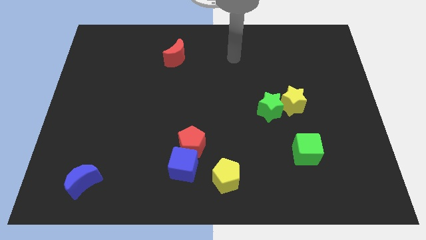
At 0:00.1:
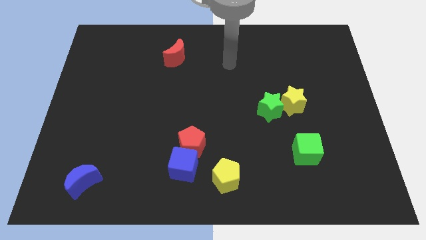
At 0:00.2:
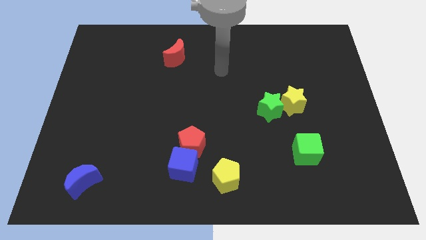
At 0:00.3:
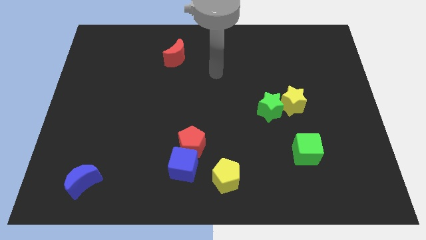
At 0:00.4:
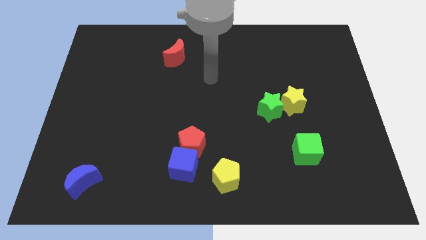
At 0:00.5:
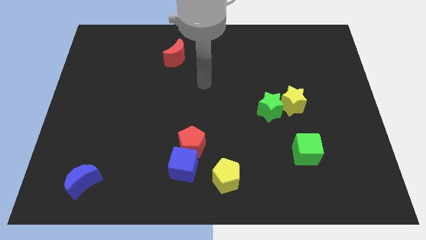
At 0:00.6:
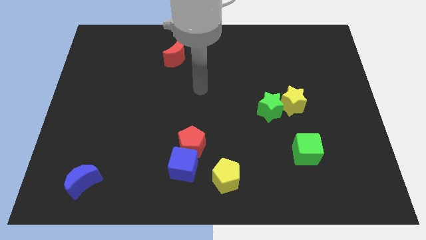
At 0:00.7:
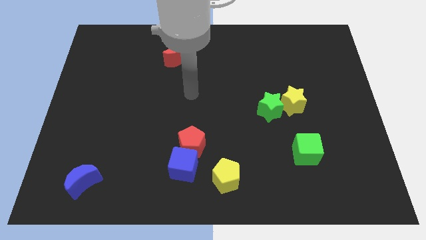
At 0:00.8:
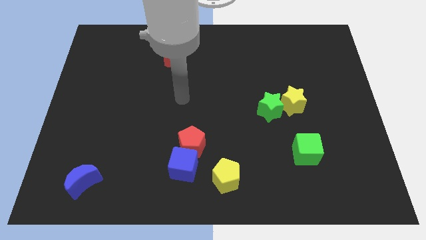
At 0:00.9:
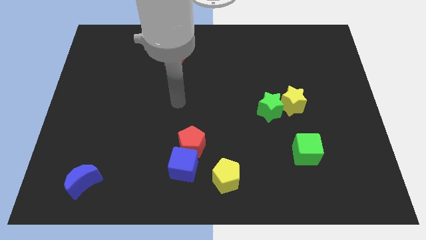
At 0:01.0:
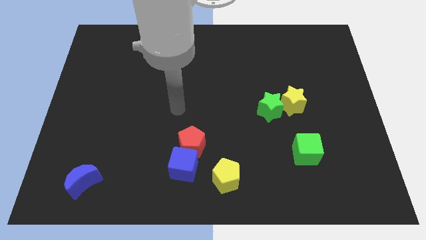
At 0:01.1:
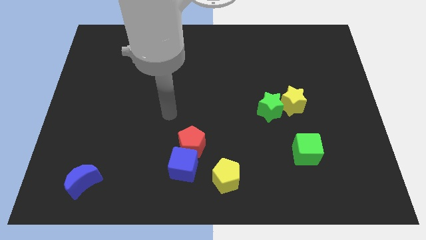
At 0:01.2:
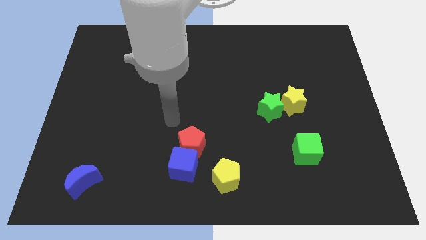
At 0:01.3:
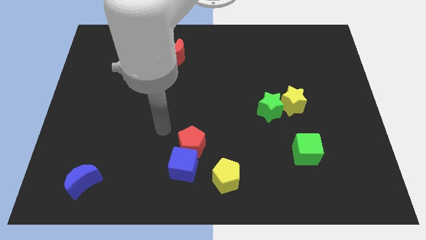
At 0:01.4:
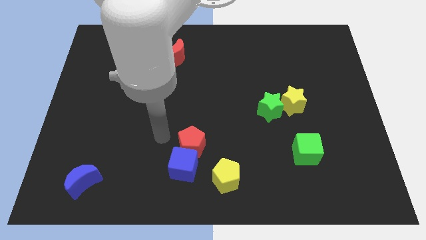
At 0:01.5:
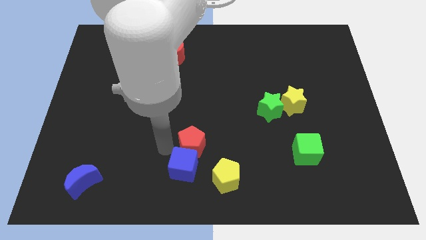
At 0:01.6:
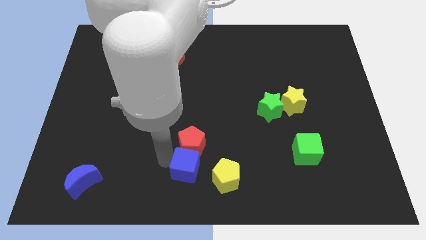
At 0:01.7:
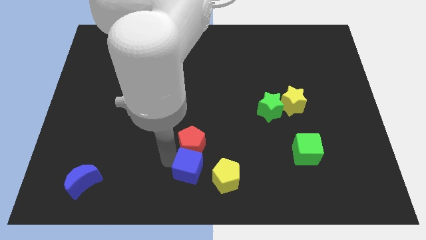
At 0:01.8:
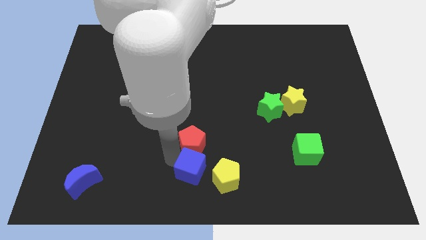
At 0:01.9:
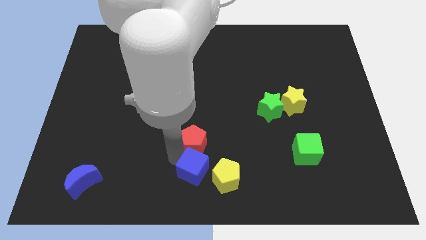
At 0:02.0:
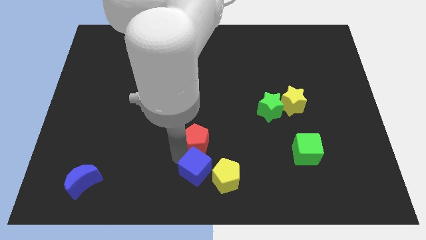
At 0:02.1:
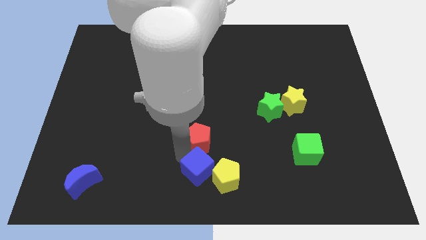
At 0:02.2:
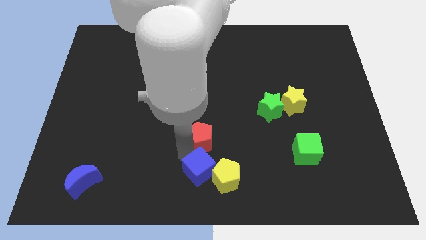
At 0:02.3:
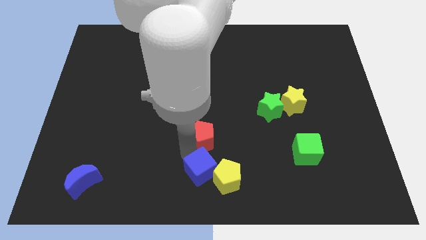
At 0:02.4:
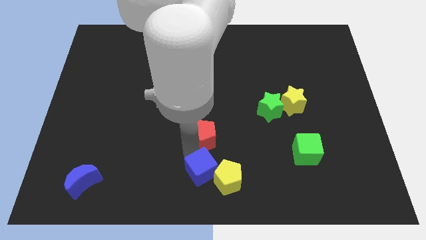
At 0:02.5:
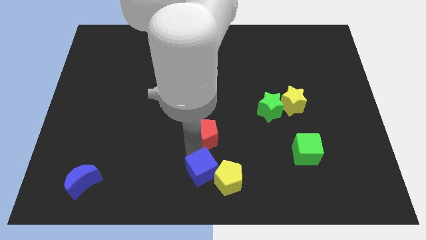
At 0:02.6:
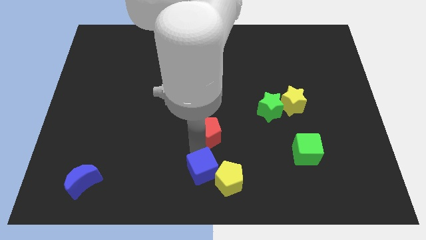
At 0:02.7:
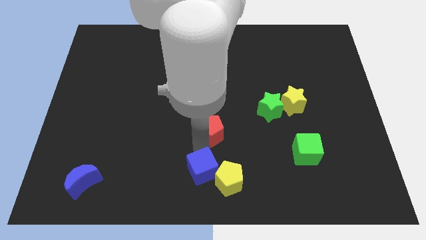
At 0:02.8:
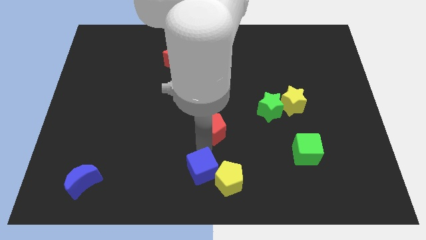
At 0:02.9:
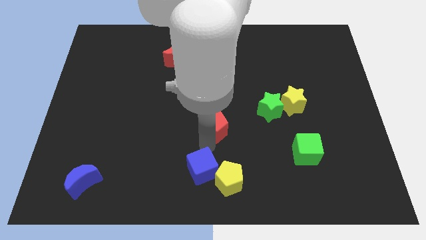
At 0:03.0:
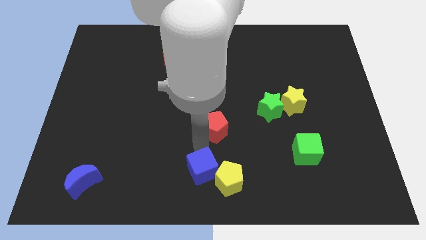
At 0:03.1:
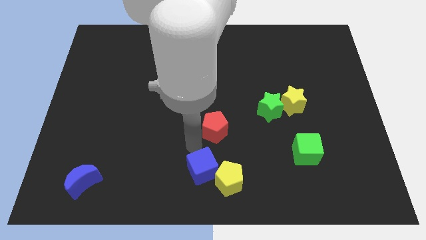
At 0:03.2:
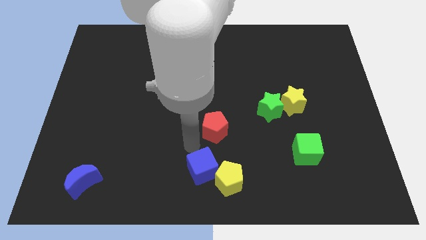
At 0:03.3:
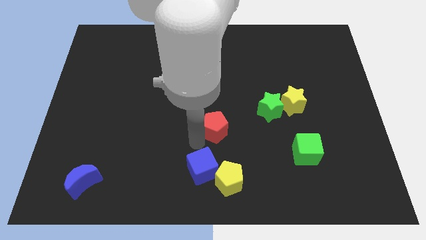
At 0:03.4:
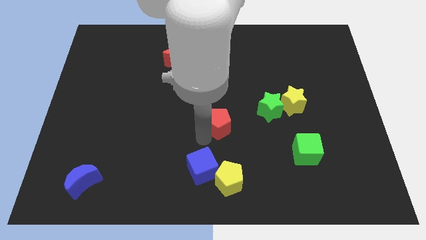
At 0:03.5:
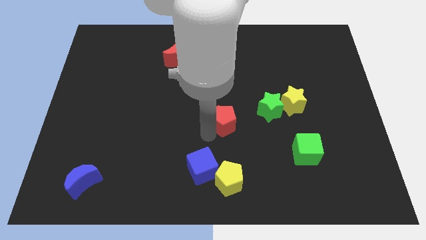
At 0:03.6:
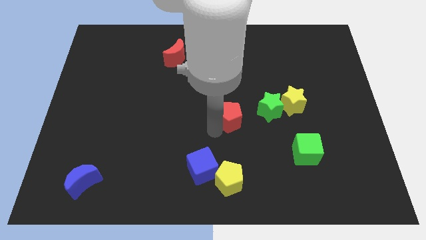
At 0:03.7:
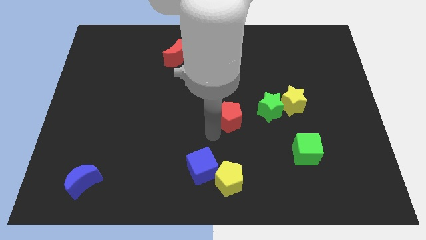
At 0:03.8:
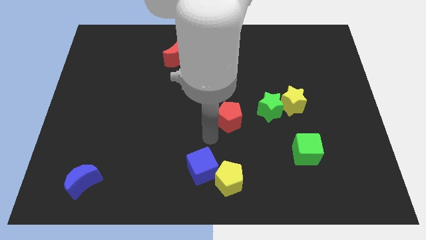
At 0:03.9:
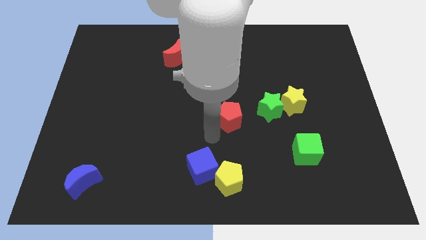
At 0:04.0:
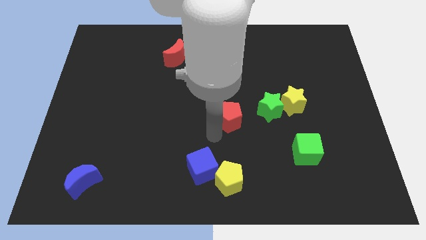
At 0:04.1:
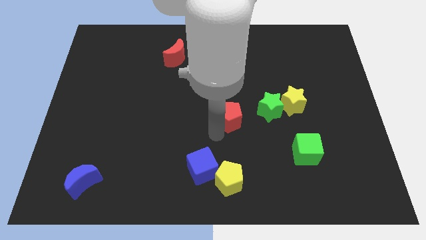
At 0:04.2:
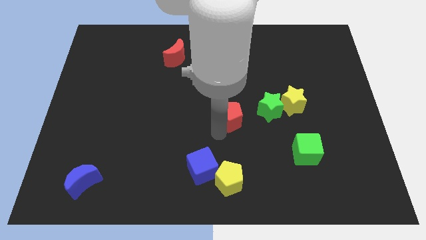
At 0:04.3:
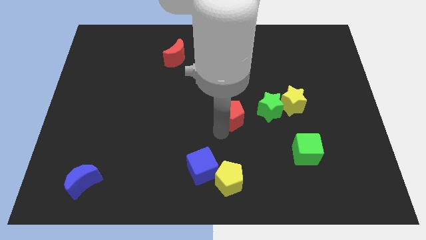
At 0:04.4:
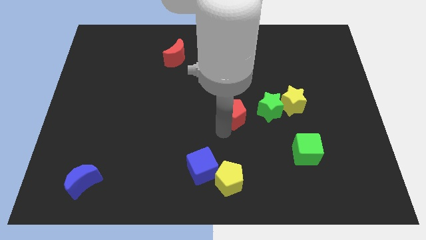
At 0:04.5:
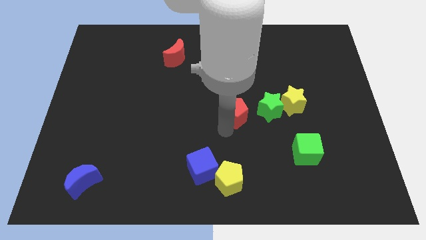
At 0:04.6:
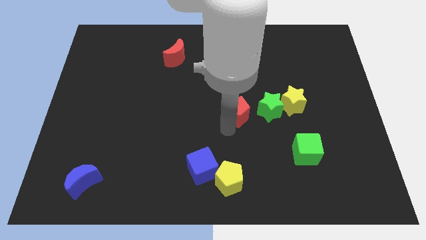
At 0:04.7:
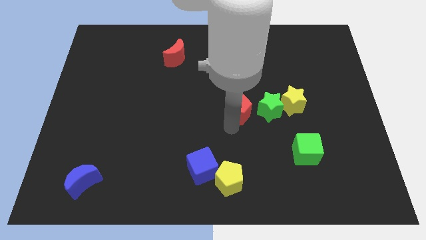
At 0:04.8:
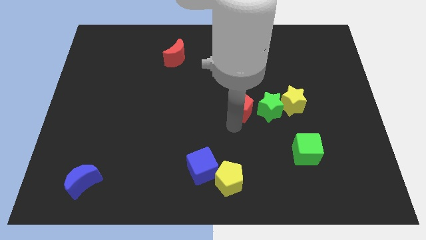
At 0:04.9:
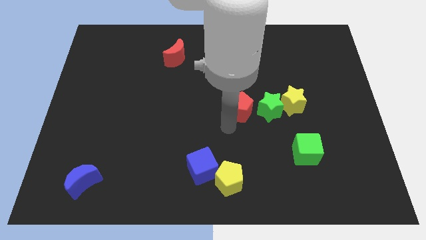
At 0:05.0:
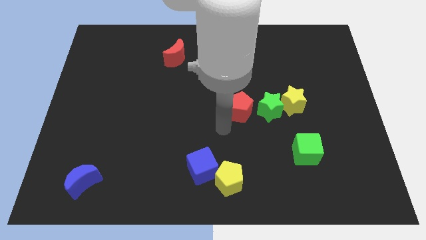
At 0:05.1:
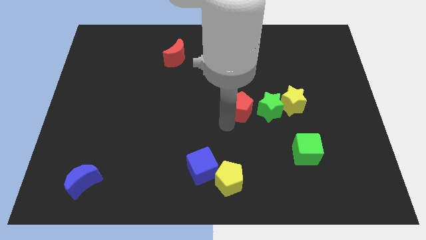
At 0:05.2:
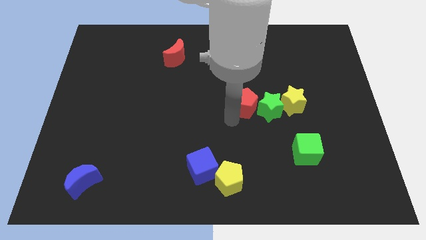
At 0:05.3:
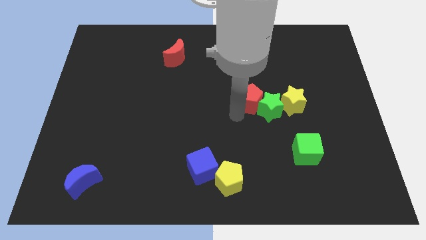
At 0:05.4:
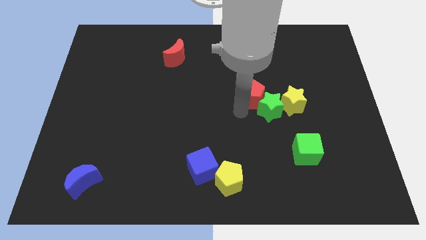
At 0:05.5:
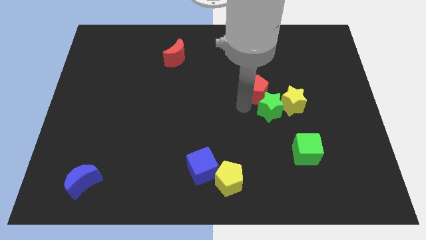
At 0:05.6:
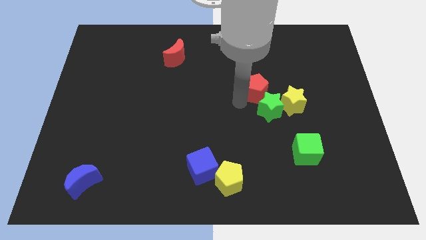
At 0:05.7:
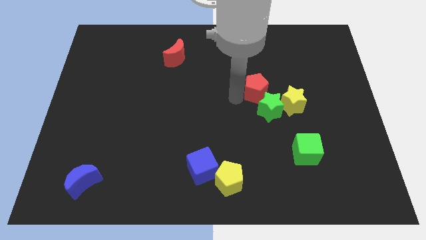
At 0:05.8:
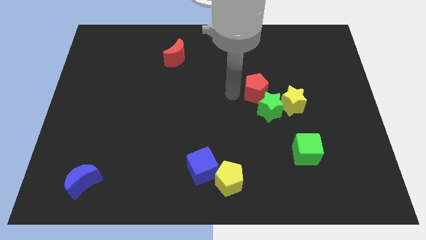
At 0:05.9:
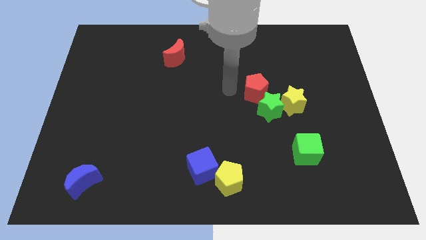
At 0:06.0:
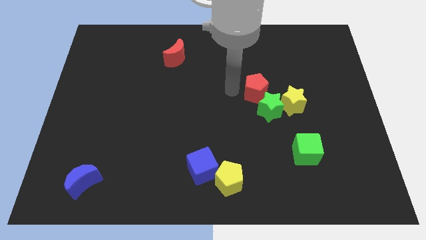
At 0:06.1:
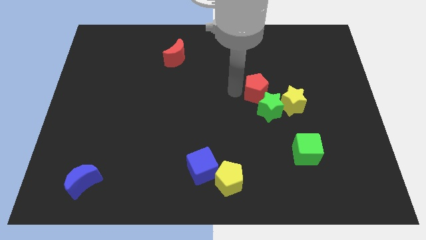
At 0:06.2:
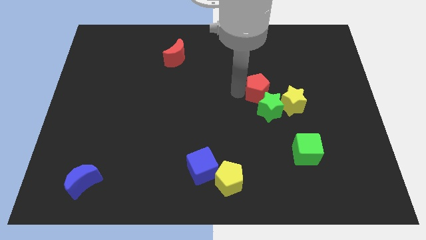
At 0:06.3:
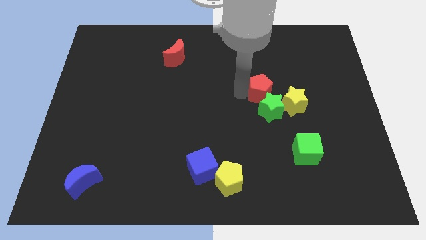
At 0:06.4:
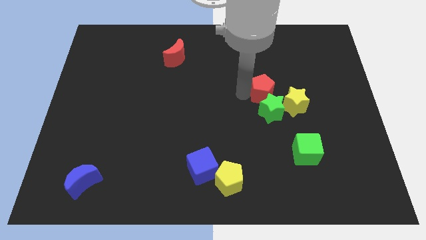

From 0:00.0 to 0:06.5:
slide the red pentagon to the top right side of the green star
